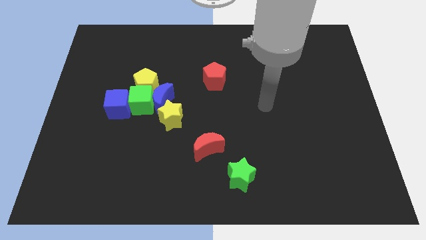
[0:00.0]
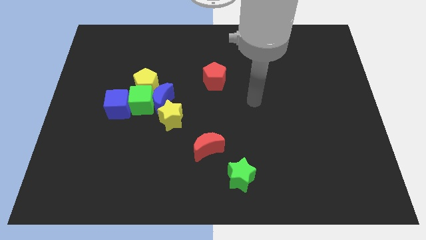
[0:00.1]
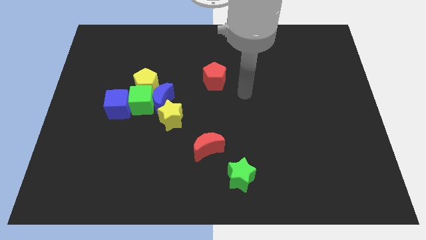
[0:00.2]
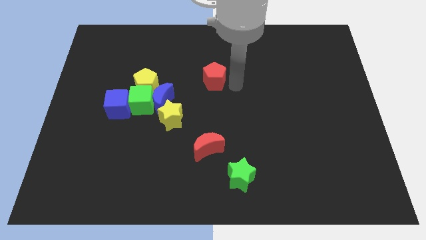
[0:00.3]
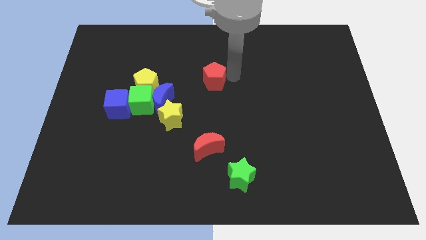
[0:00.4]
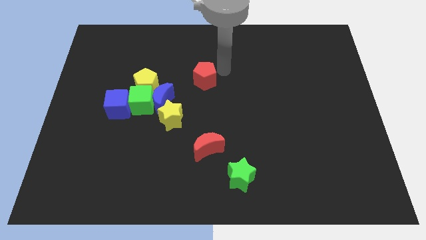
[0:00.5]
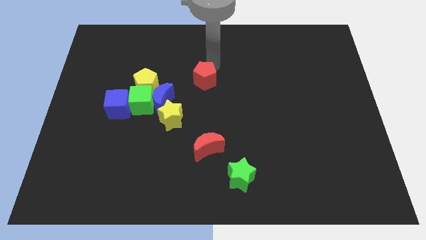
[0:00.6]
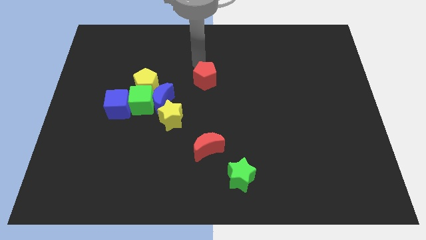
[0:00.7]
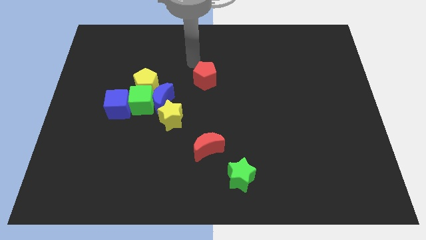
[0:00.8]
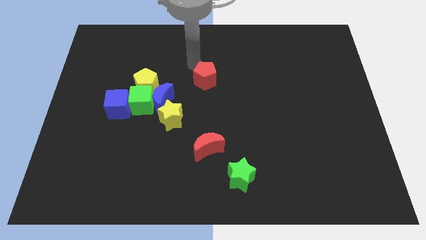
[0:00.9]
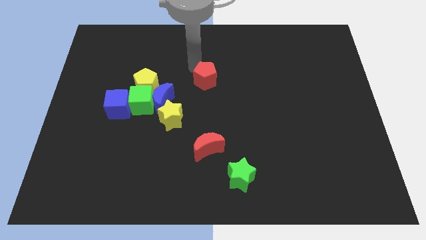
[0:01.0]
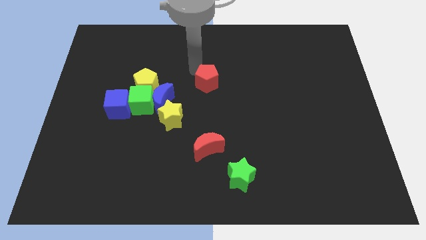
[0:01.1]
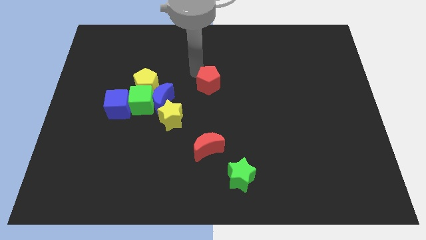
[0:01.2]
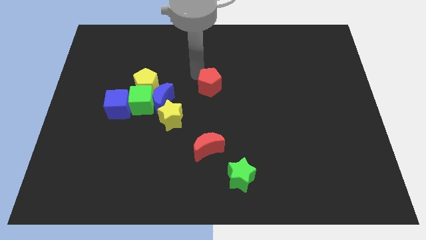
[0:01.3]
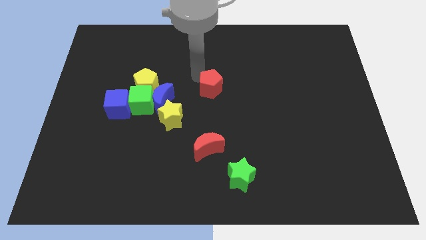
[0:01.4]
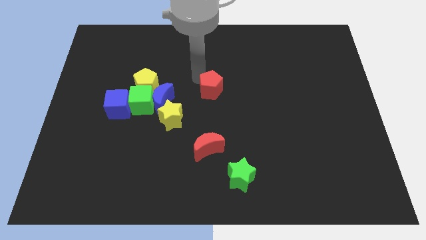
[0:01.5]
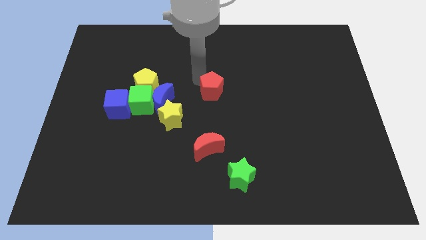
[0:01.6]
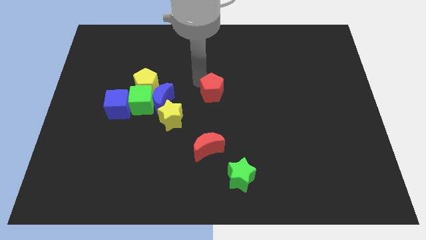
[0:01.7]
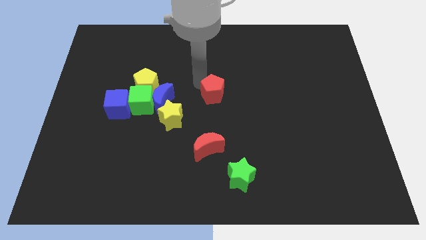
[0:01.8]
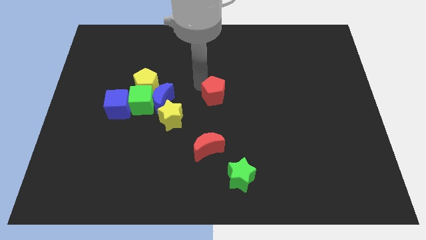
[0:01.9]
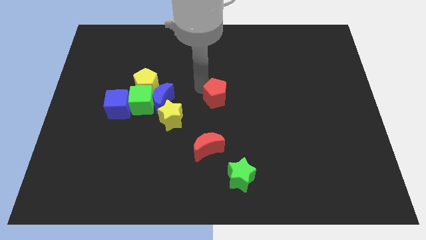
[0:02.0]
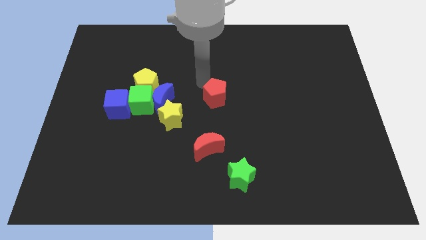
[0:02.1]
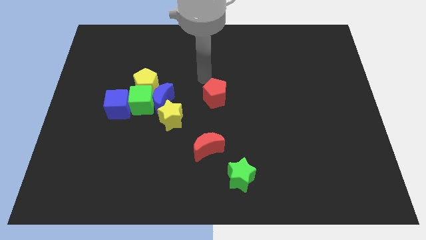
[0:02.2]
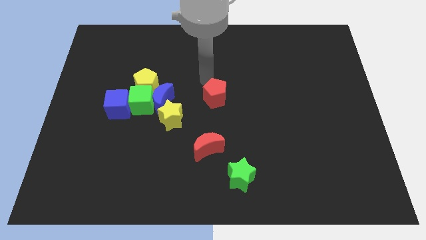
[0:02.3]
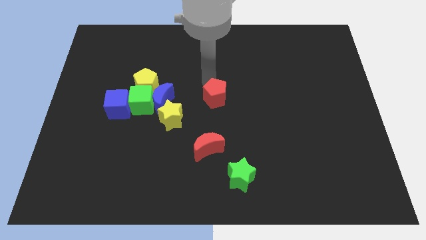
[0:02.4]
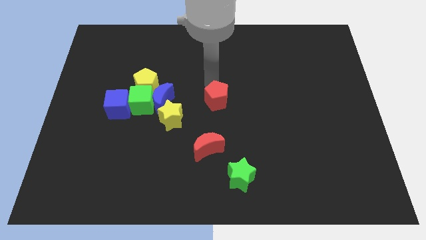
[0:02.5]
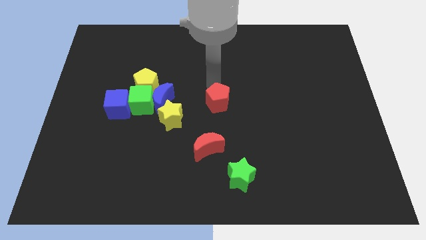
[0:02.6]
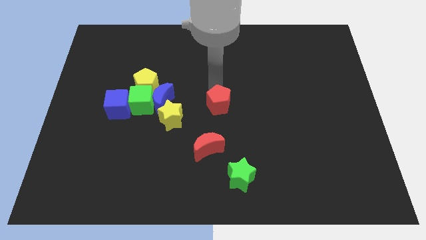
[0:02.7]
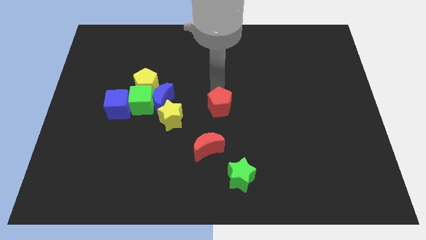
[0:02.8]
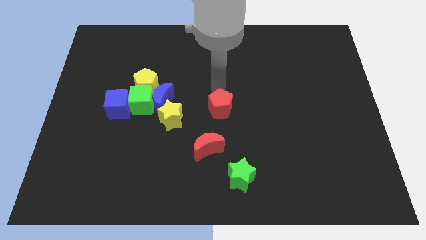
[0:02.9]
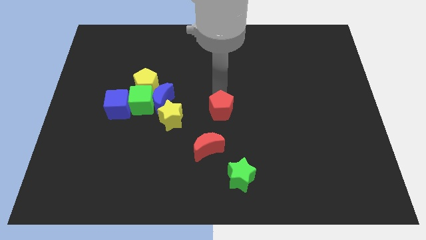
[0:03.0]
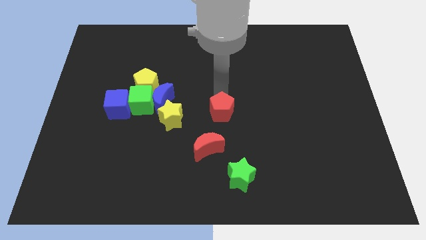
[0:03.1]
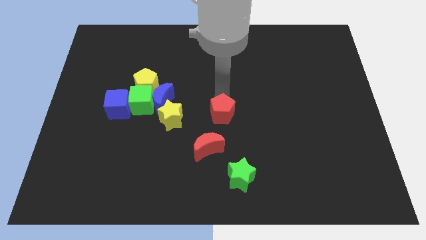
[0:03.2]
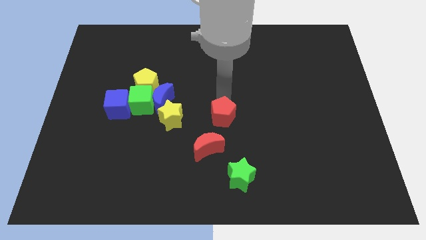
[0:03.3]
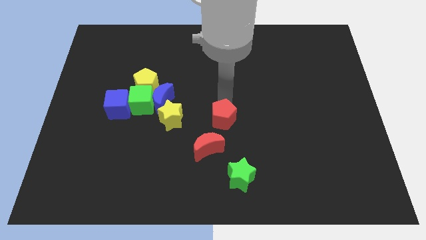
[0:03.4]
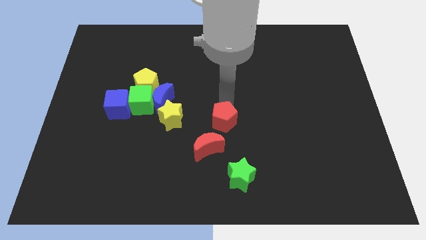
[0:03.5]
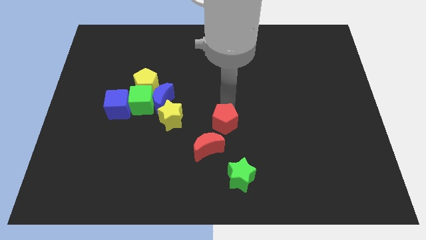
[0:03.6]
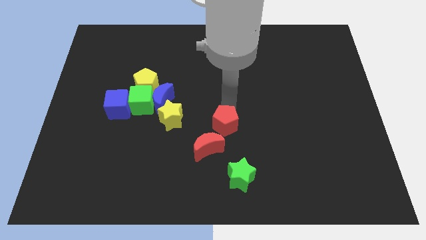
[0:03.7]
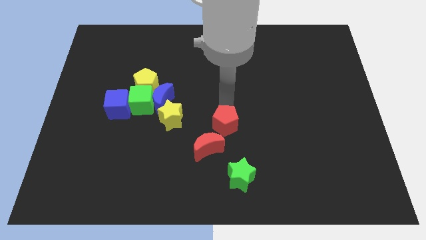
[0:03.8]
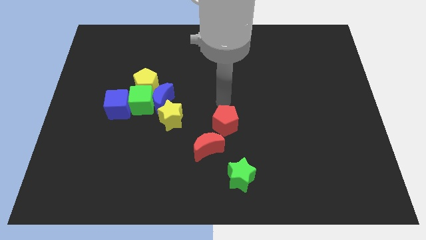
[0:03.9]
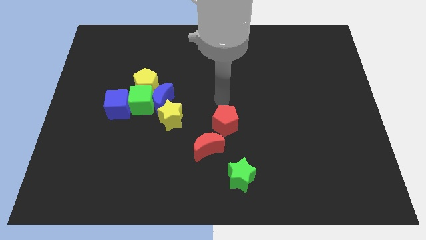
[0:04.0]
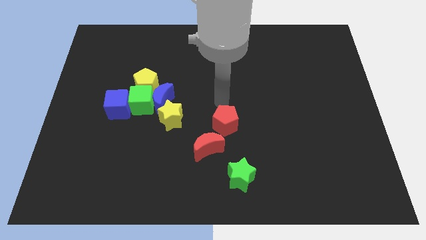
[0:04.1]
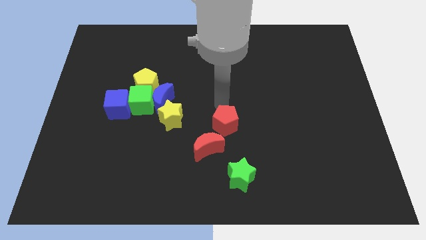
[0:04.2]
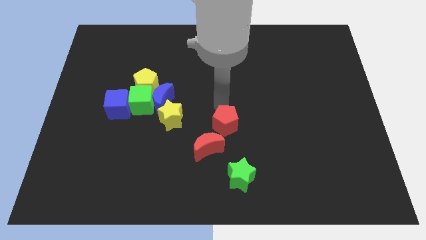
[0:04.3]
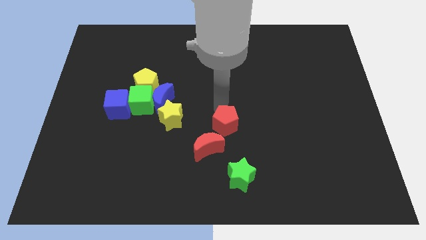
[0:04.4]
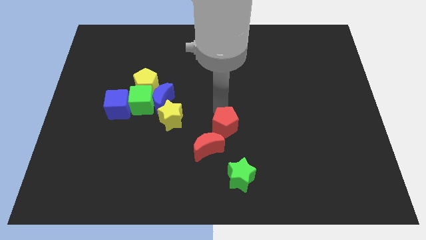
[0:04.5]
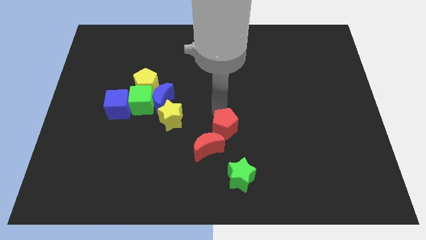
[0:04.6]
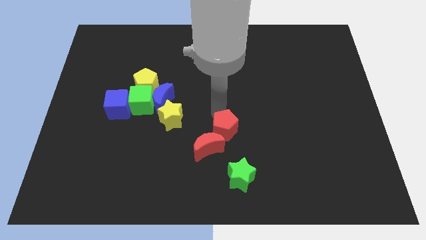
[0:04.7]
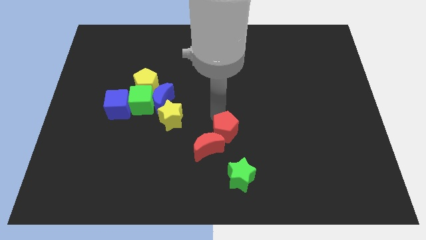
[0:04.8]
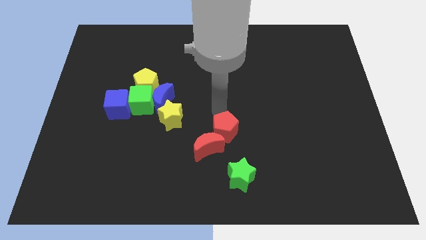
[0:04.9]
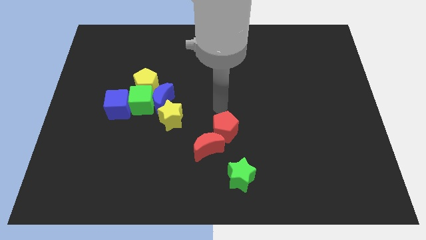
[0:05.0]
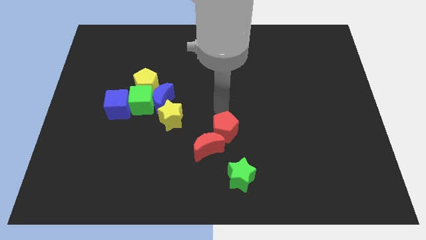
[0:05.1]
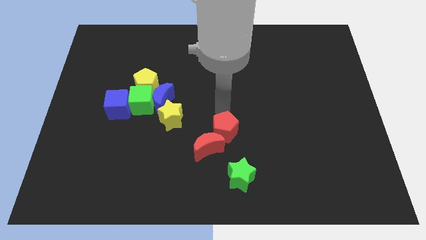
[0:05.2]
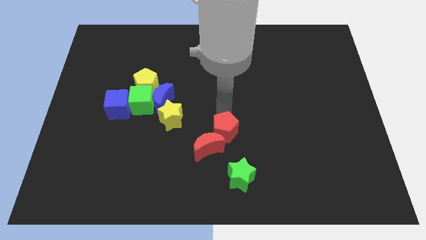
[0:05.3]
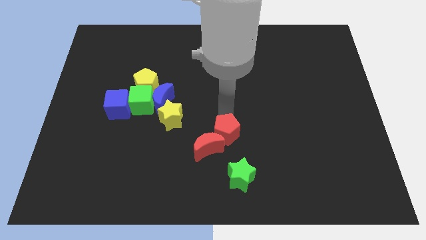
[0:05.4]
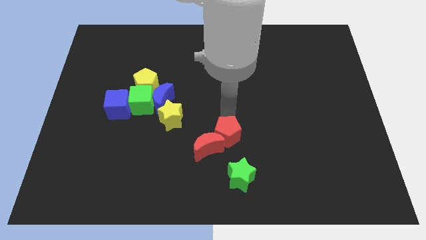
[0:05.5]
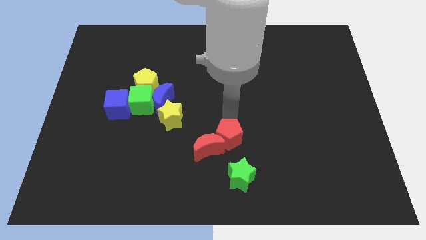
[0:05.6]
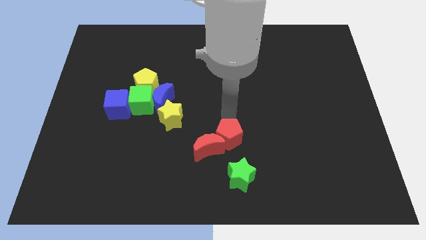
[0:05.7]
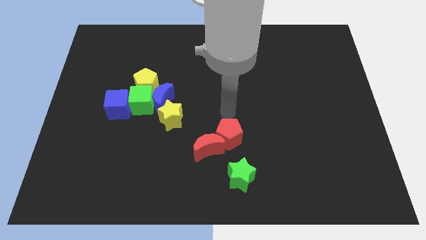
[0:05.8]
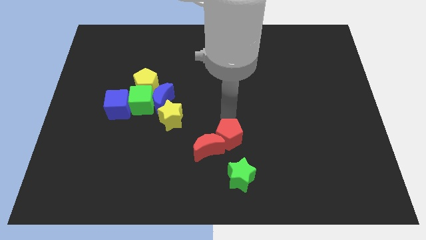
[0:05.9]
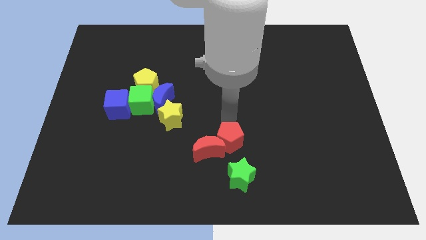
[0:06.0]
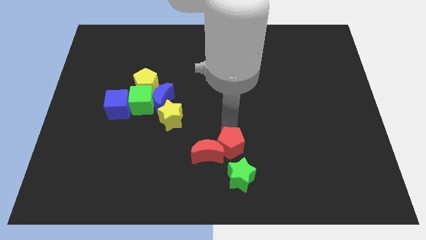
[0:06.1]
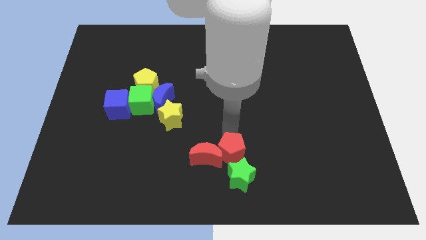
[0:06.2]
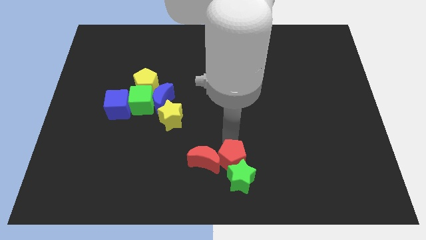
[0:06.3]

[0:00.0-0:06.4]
push the red pentagon to the green star

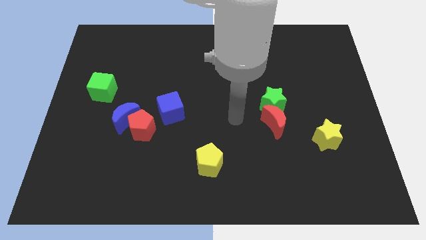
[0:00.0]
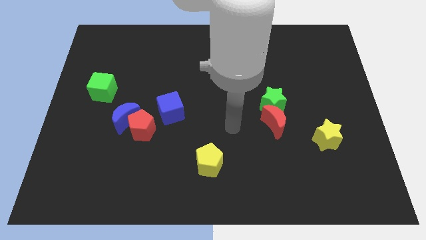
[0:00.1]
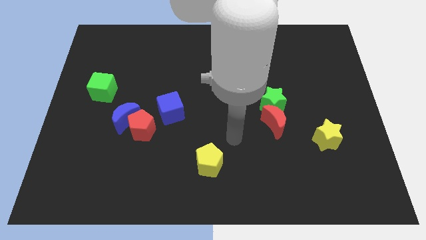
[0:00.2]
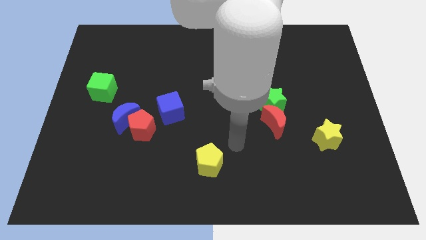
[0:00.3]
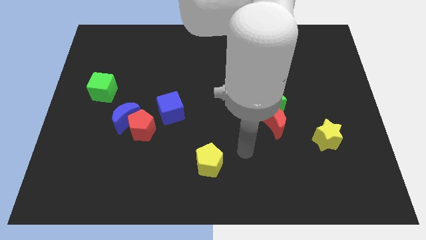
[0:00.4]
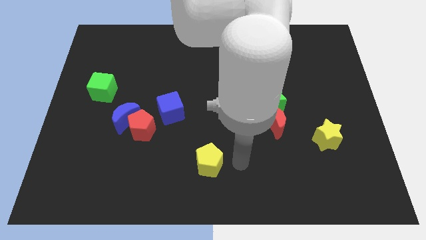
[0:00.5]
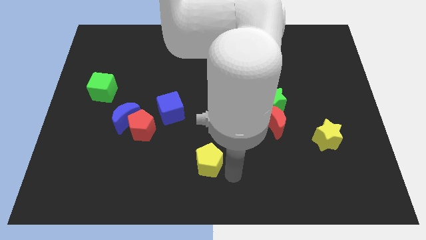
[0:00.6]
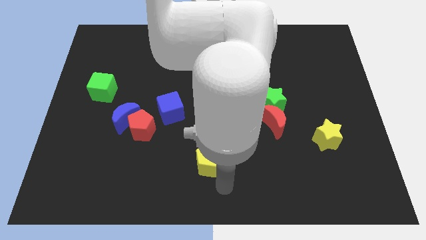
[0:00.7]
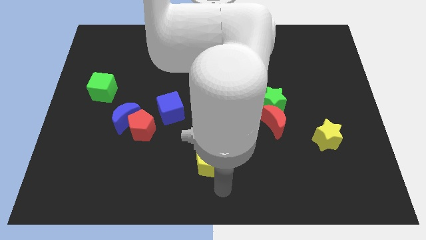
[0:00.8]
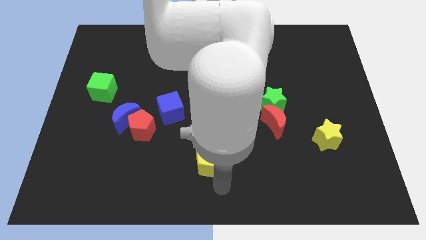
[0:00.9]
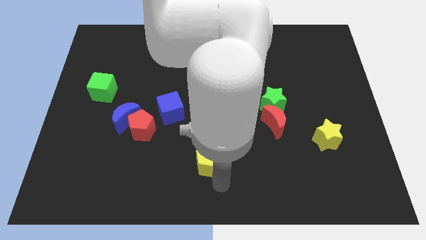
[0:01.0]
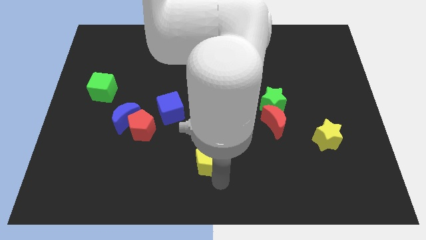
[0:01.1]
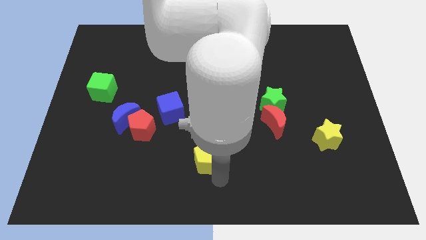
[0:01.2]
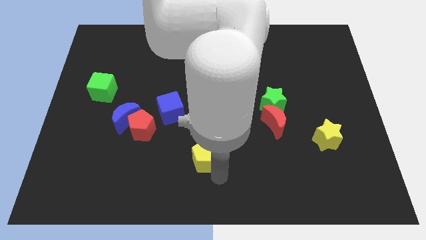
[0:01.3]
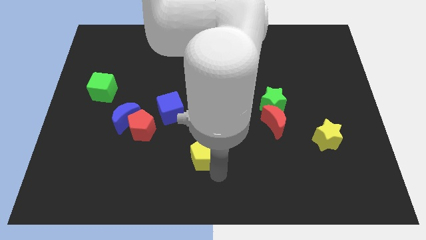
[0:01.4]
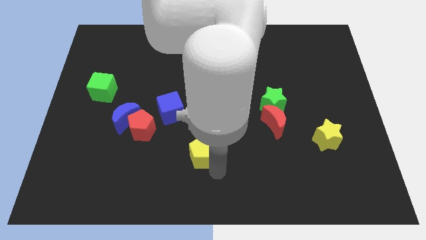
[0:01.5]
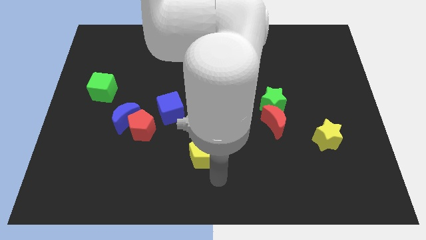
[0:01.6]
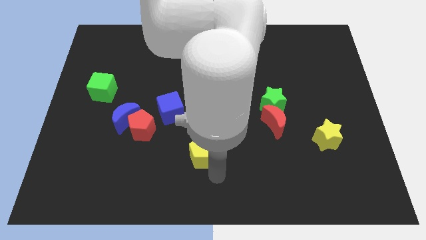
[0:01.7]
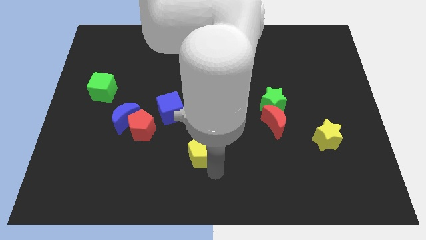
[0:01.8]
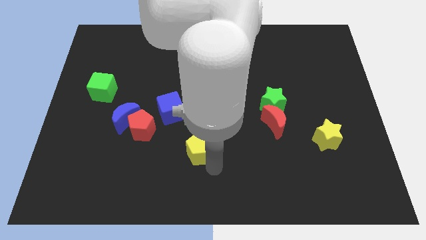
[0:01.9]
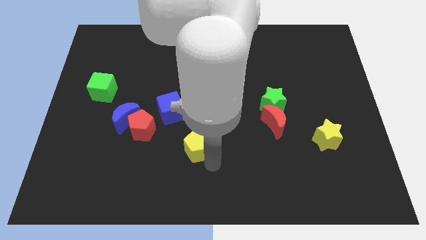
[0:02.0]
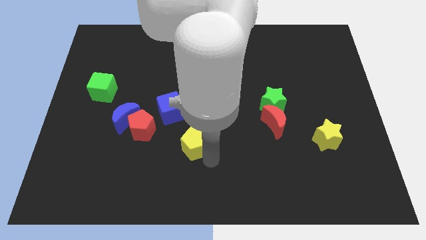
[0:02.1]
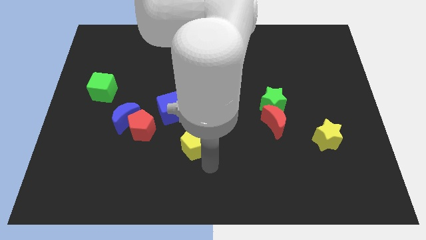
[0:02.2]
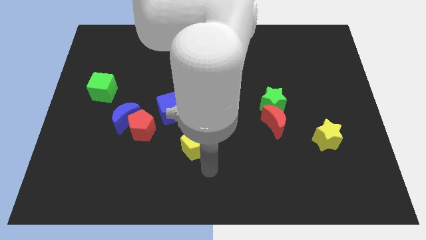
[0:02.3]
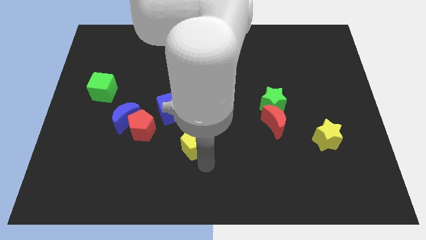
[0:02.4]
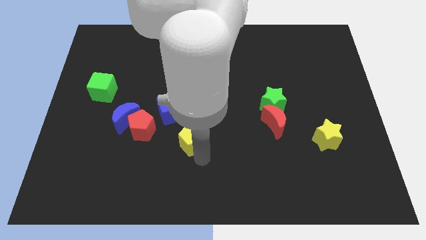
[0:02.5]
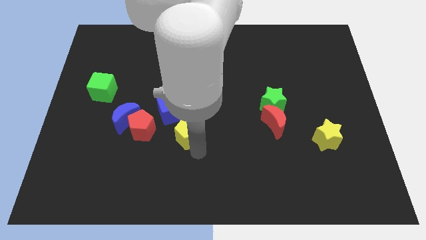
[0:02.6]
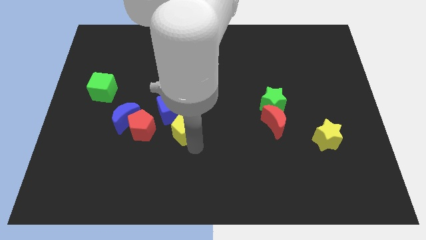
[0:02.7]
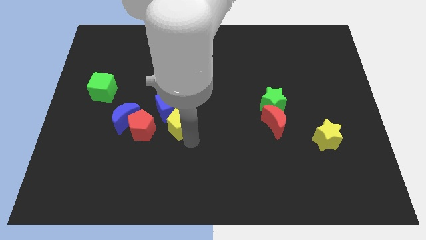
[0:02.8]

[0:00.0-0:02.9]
move the yellow pentagon close to the blue cube
